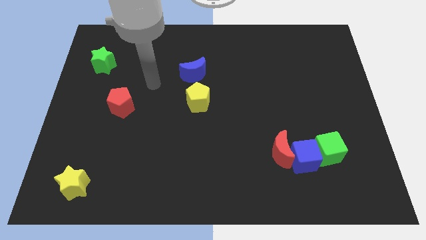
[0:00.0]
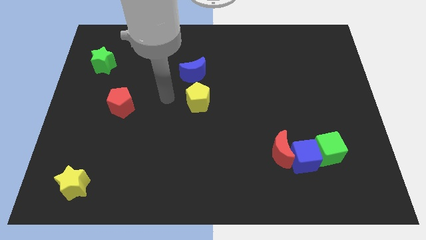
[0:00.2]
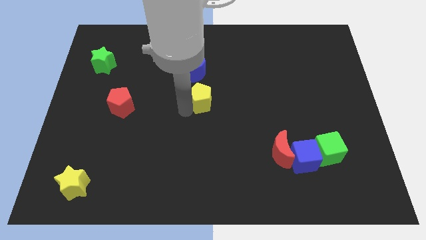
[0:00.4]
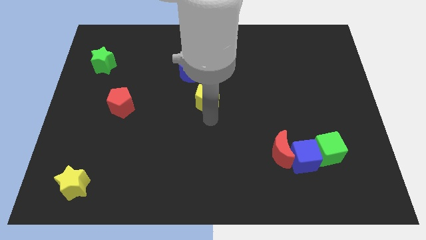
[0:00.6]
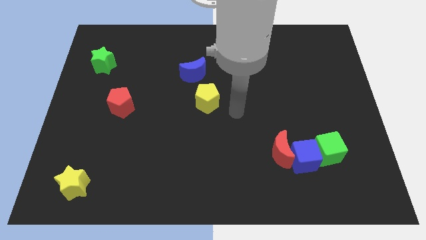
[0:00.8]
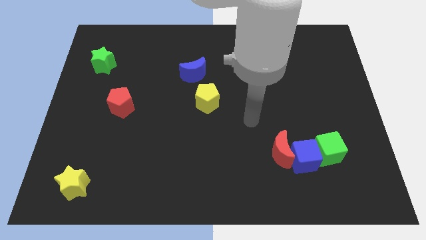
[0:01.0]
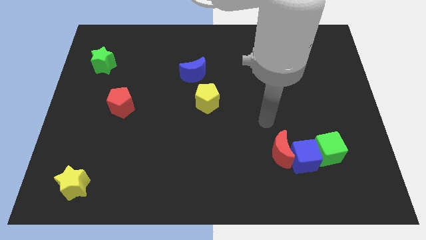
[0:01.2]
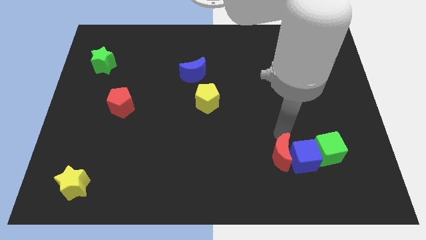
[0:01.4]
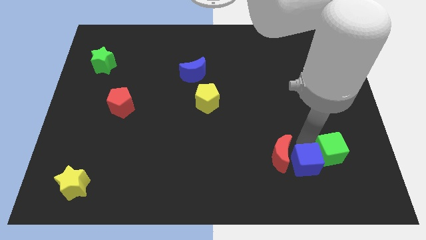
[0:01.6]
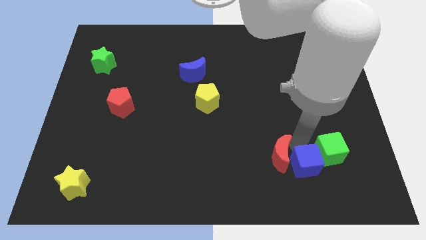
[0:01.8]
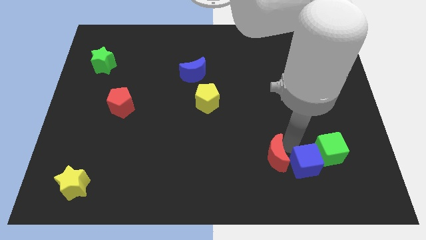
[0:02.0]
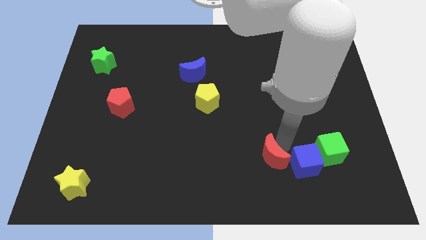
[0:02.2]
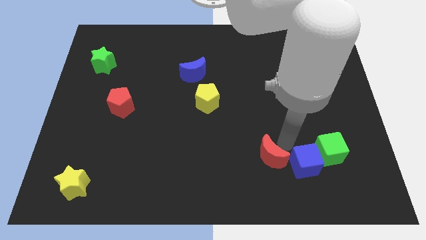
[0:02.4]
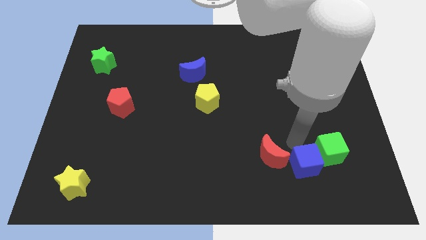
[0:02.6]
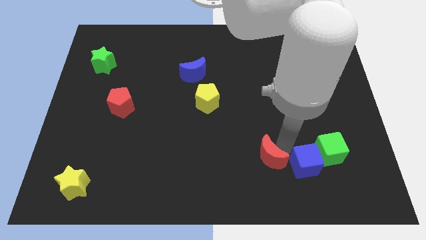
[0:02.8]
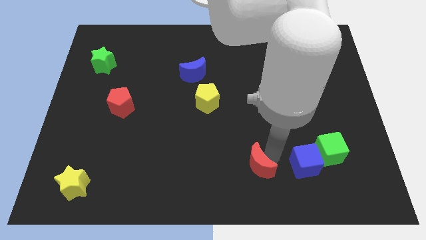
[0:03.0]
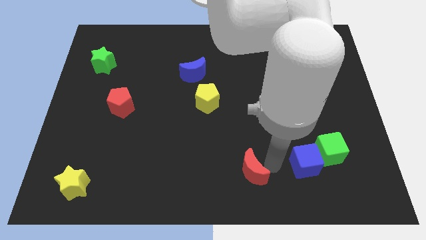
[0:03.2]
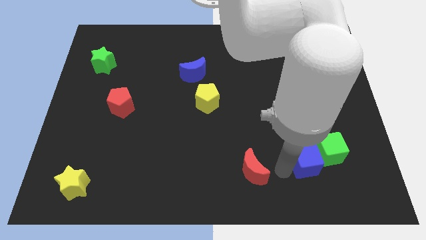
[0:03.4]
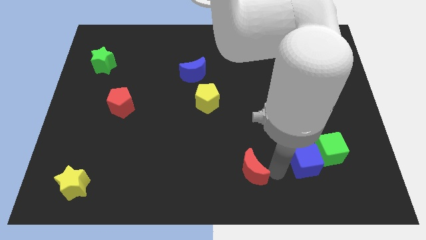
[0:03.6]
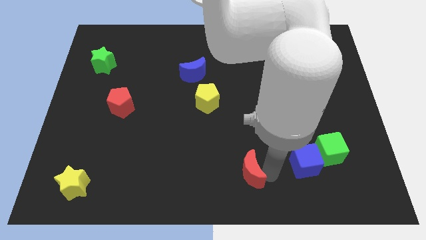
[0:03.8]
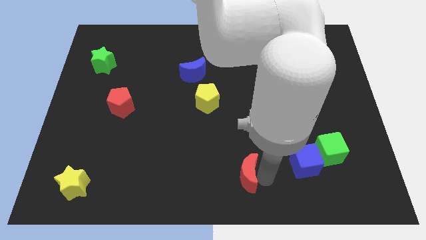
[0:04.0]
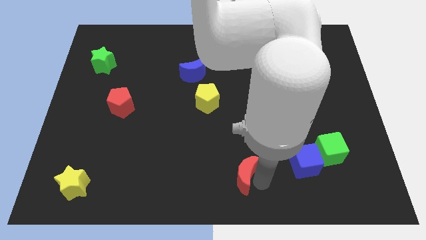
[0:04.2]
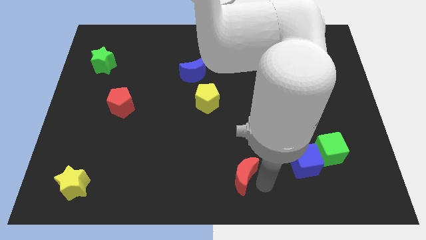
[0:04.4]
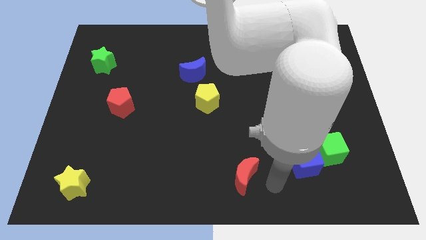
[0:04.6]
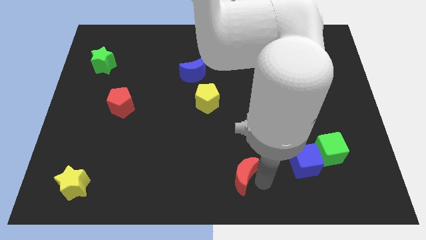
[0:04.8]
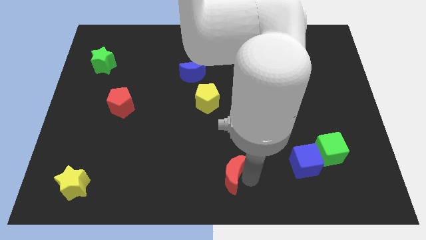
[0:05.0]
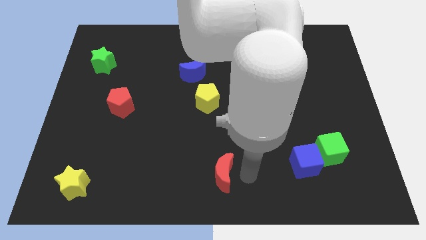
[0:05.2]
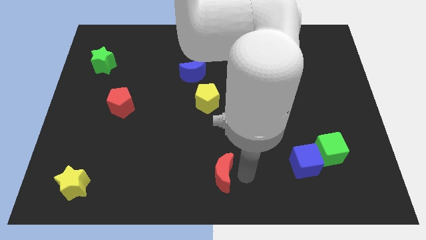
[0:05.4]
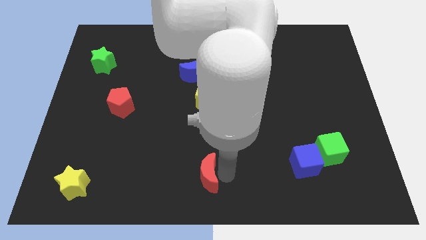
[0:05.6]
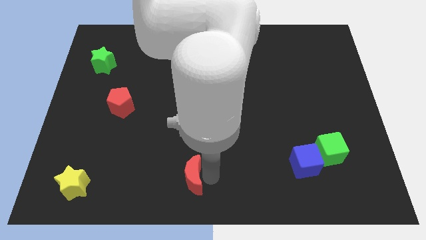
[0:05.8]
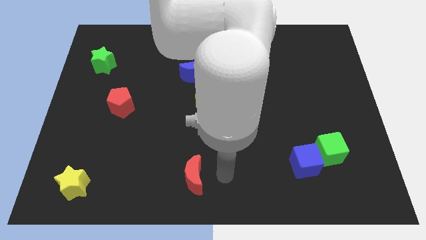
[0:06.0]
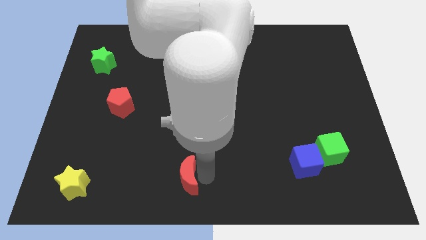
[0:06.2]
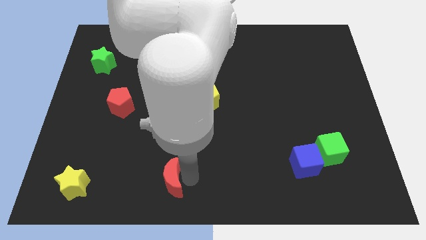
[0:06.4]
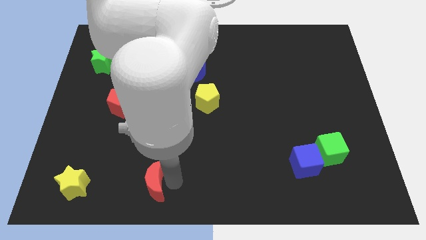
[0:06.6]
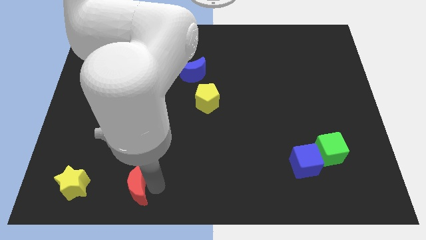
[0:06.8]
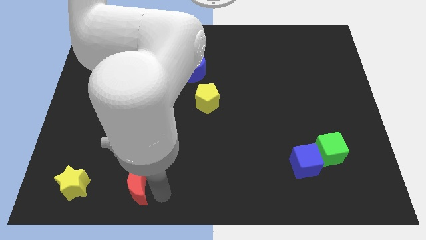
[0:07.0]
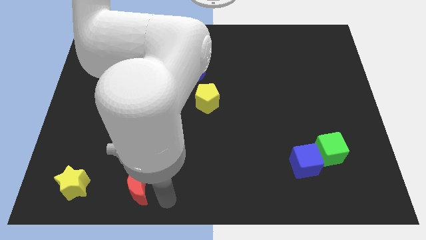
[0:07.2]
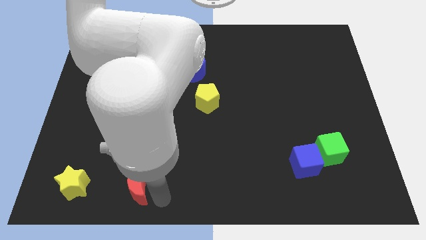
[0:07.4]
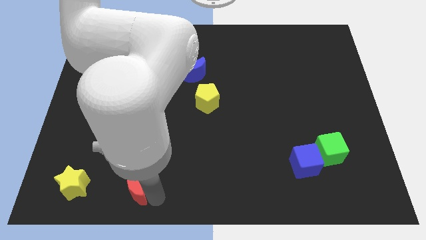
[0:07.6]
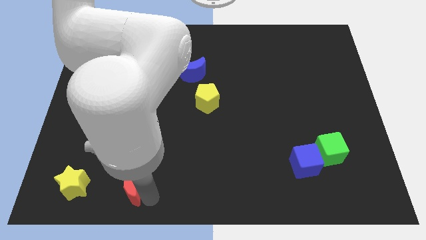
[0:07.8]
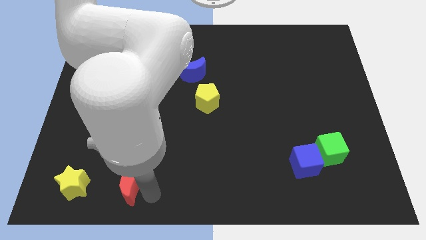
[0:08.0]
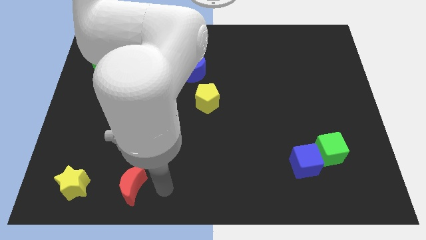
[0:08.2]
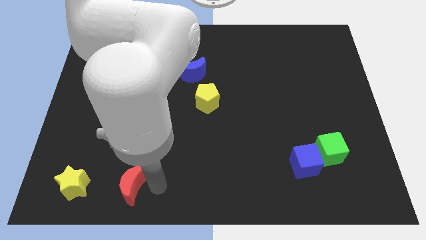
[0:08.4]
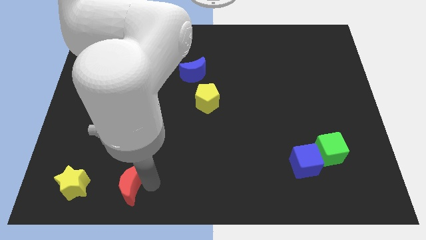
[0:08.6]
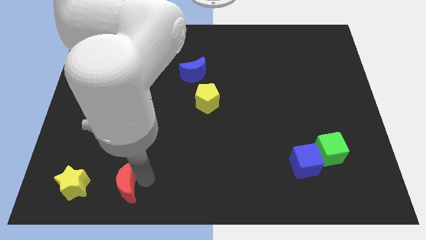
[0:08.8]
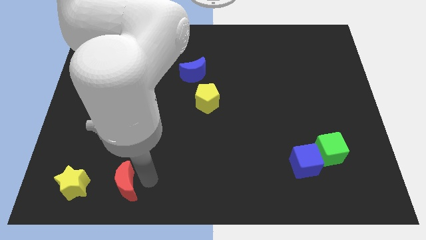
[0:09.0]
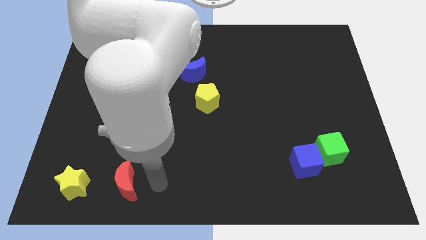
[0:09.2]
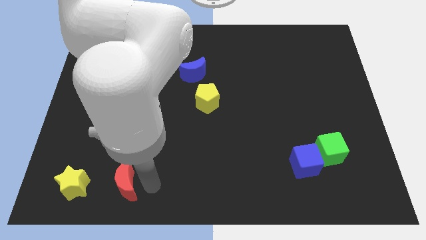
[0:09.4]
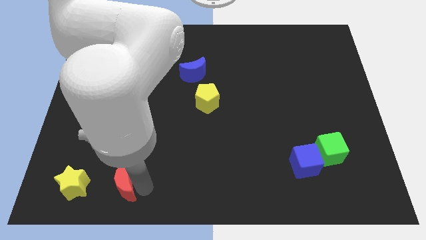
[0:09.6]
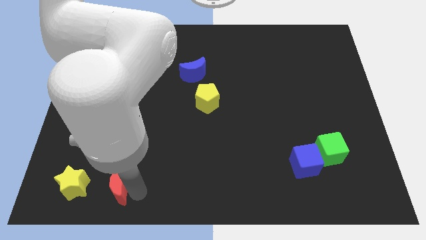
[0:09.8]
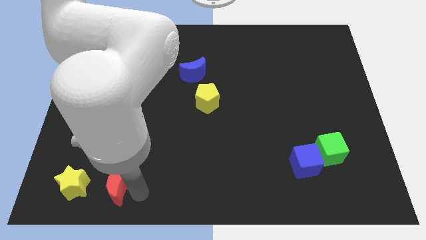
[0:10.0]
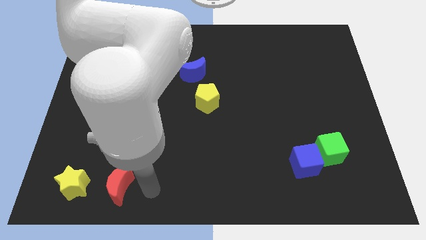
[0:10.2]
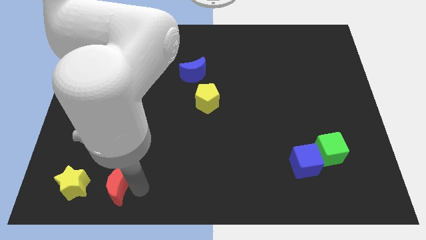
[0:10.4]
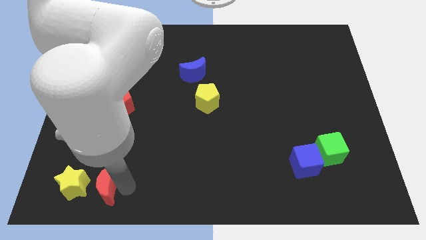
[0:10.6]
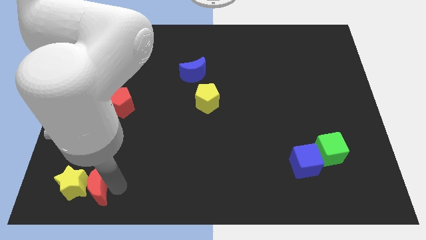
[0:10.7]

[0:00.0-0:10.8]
move the red moon close to the yellow star

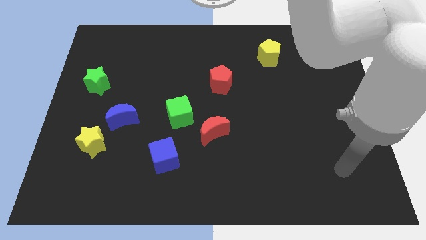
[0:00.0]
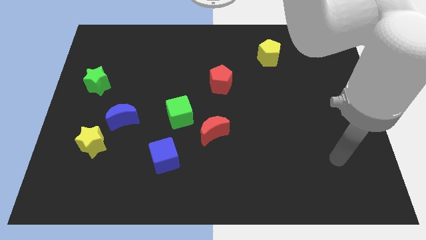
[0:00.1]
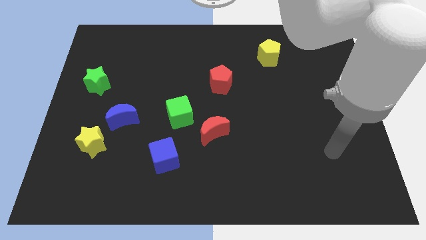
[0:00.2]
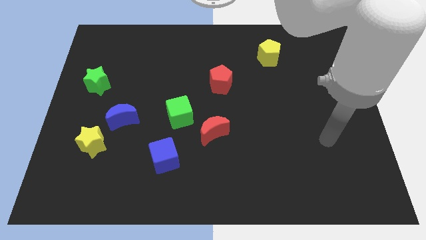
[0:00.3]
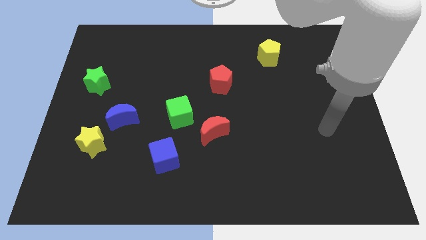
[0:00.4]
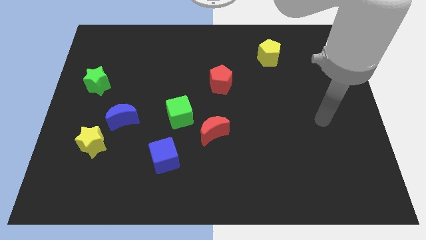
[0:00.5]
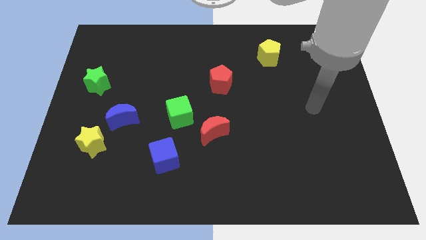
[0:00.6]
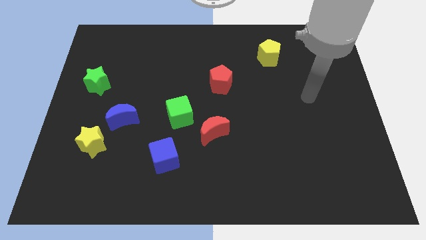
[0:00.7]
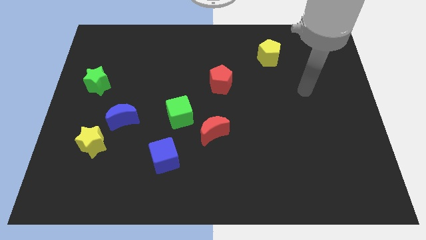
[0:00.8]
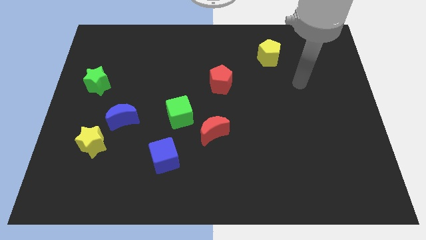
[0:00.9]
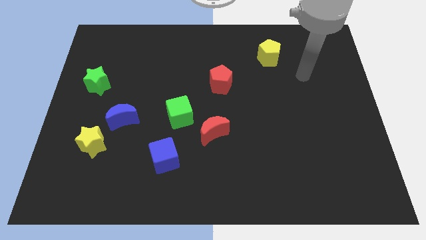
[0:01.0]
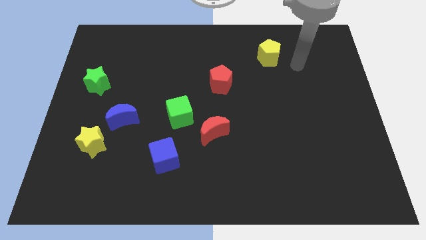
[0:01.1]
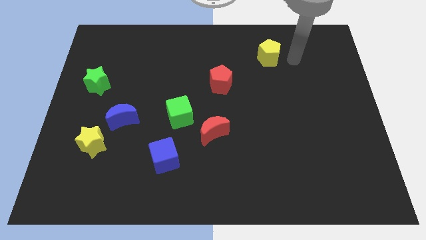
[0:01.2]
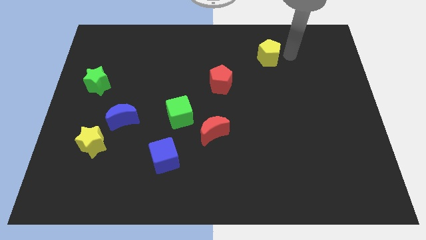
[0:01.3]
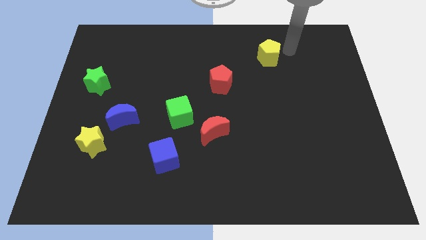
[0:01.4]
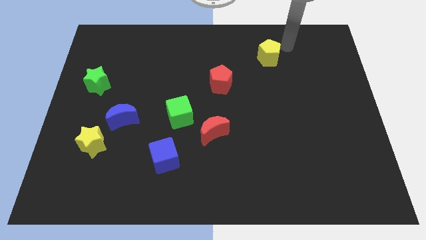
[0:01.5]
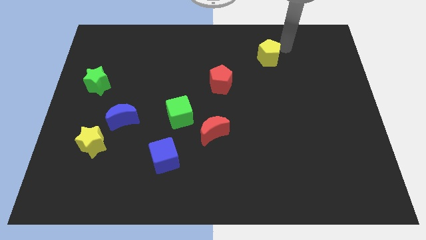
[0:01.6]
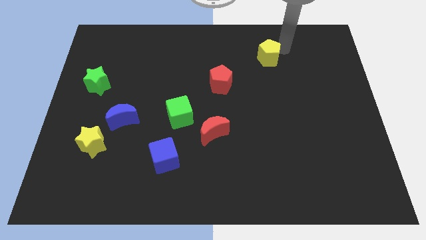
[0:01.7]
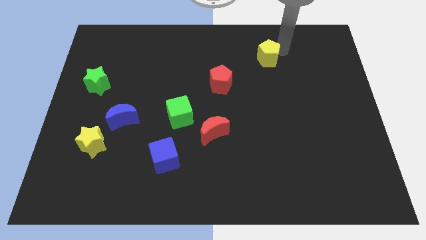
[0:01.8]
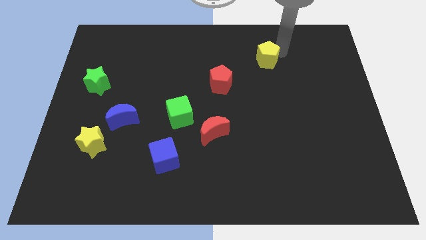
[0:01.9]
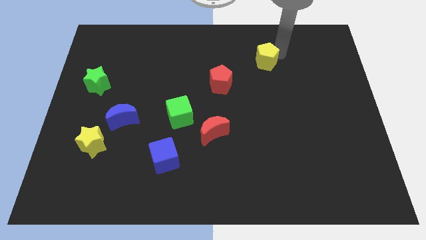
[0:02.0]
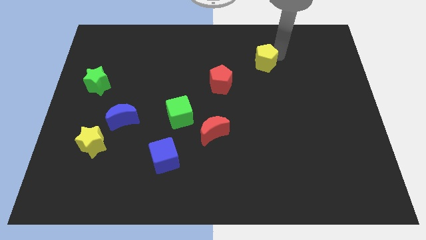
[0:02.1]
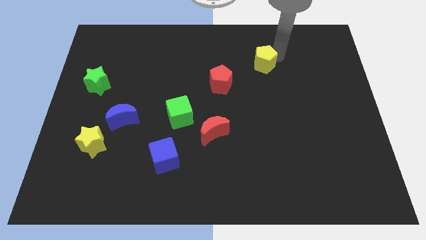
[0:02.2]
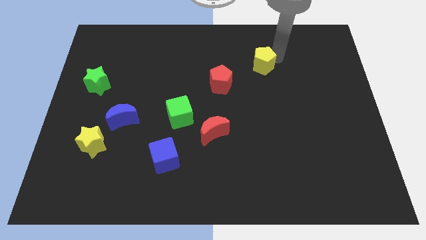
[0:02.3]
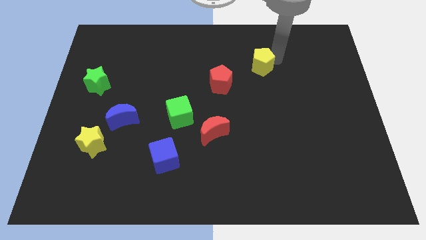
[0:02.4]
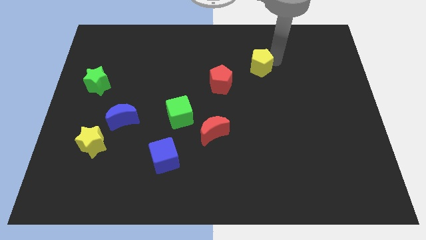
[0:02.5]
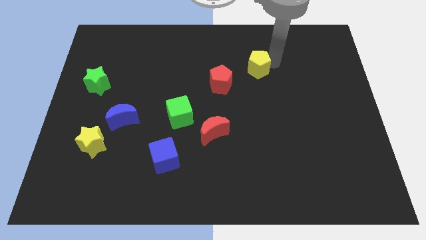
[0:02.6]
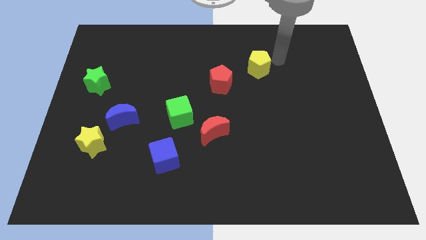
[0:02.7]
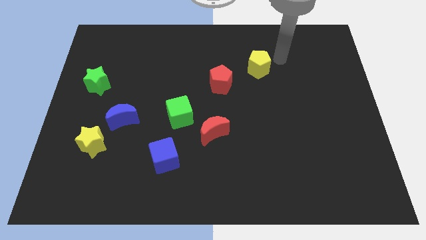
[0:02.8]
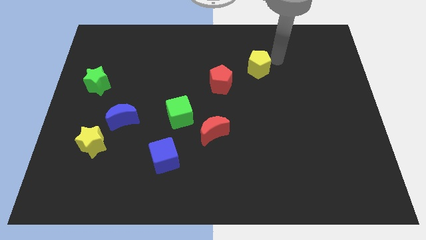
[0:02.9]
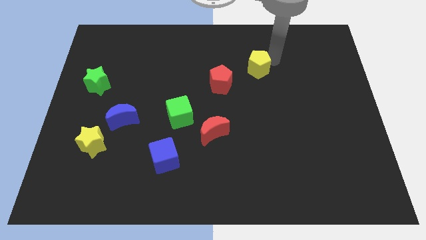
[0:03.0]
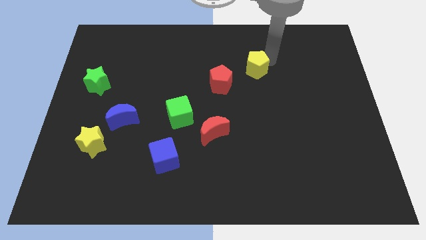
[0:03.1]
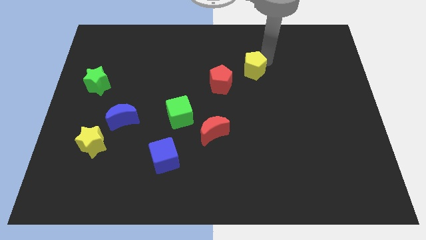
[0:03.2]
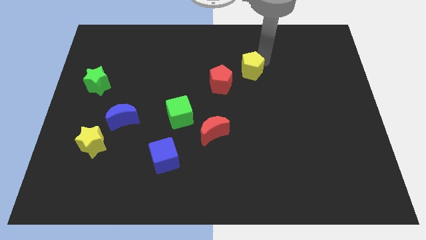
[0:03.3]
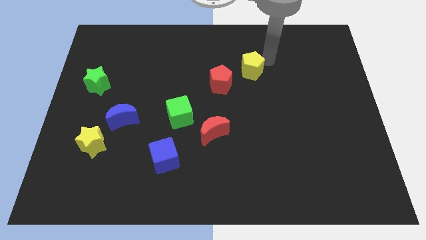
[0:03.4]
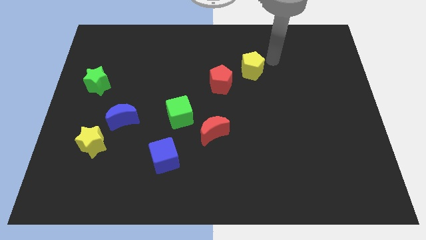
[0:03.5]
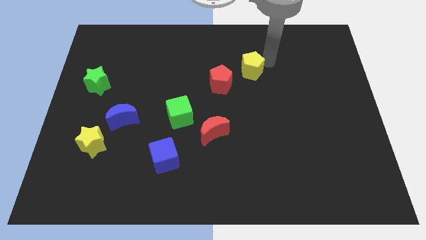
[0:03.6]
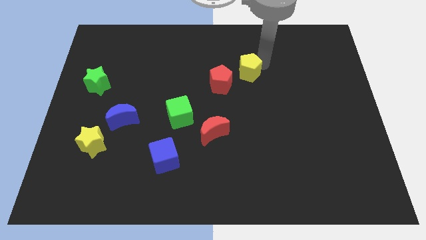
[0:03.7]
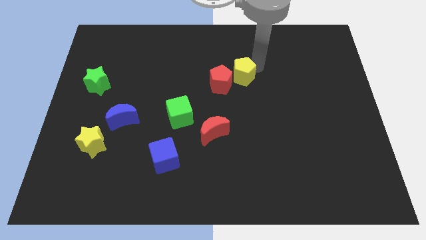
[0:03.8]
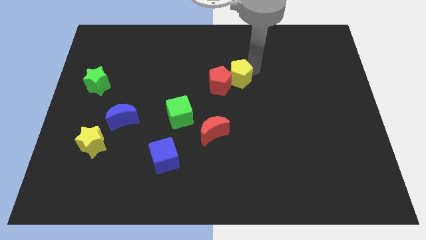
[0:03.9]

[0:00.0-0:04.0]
put the yellow pentagon towards the red pentagon
